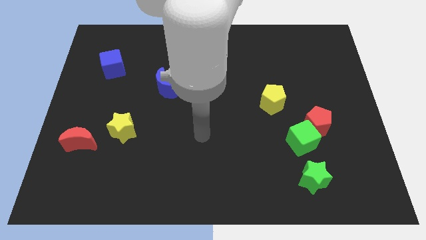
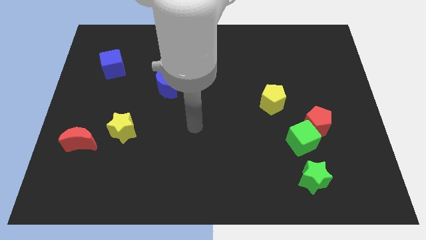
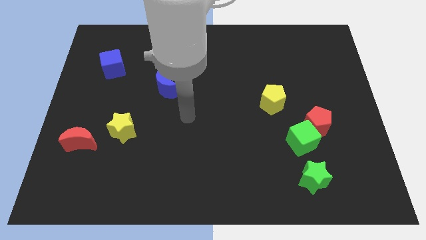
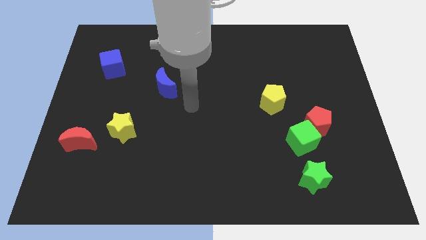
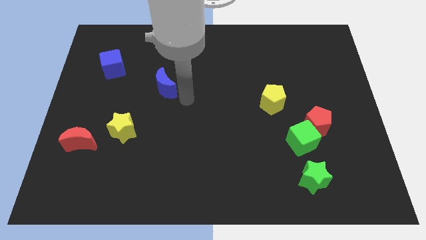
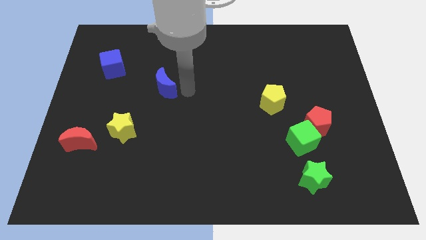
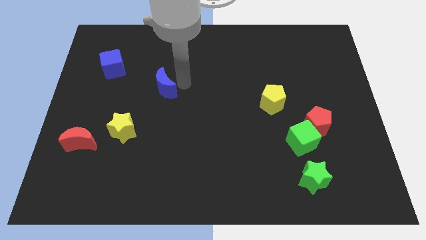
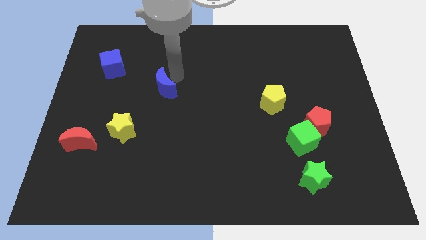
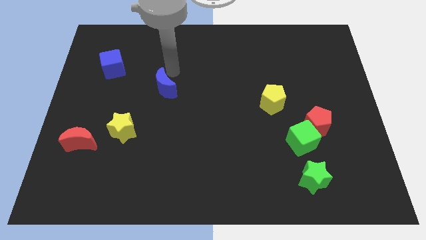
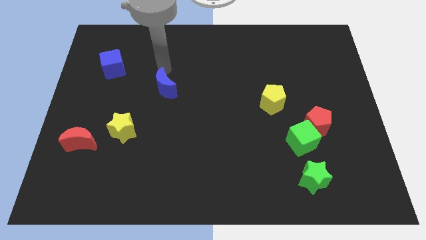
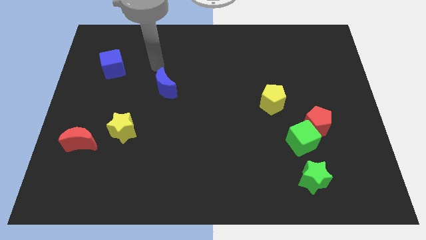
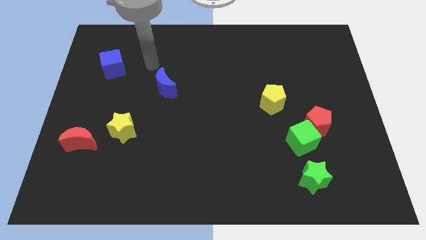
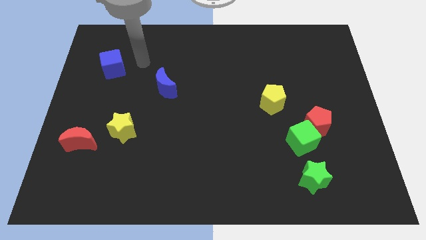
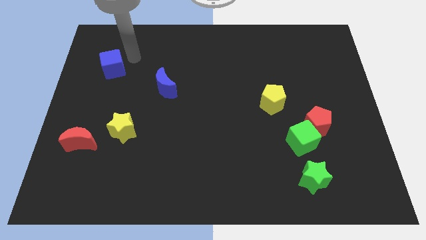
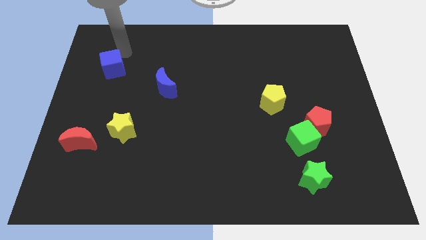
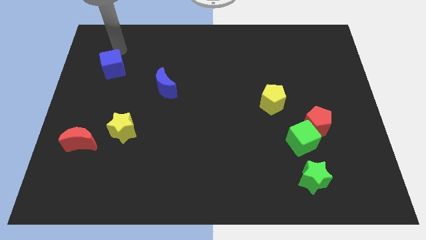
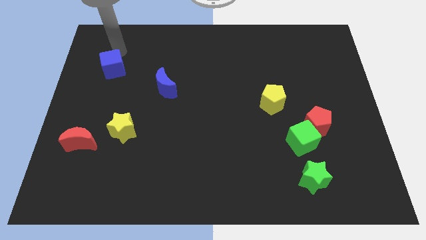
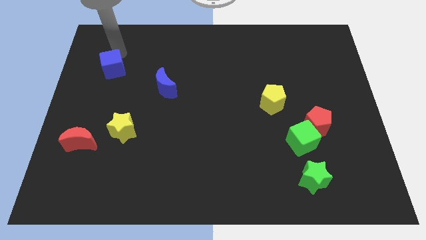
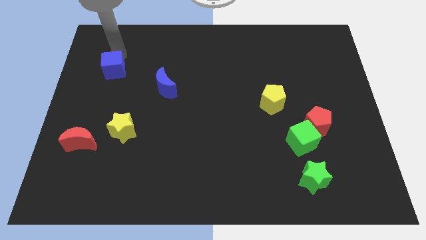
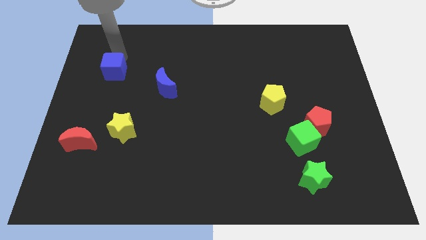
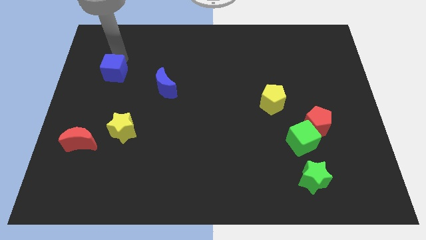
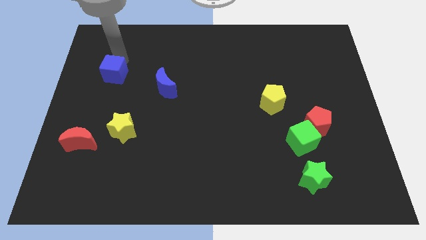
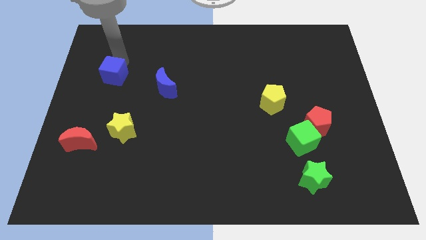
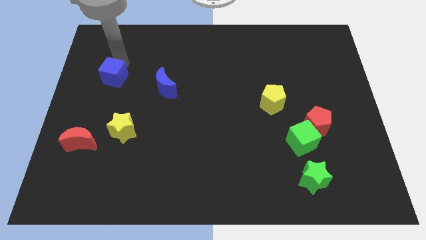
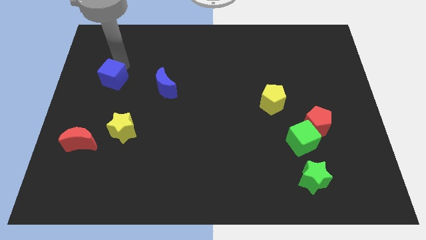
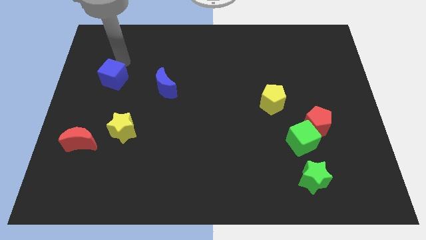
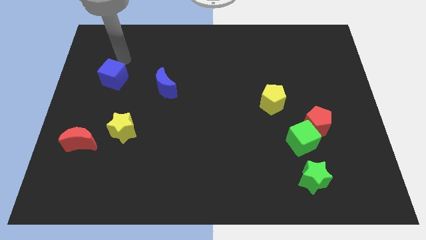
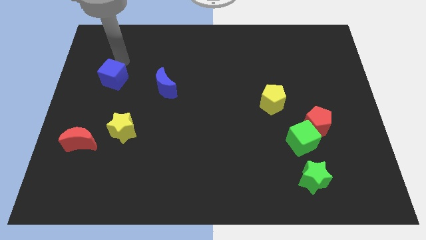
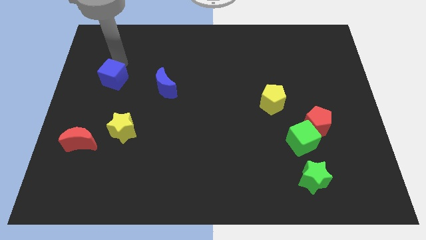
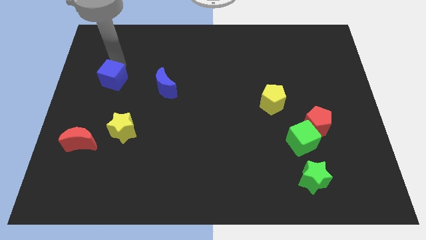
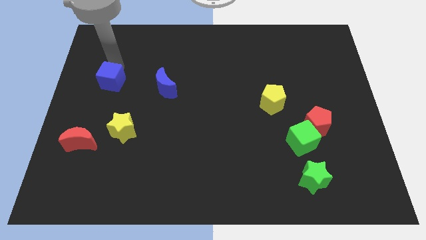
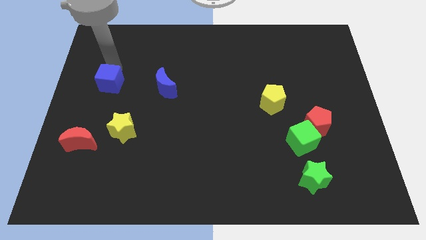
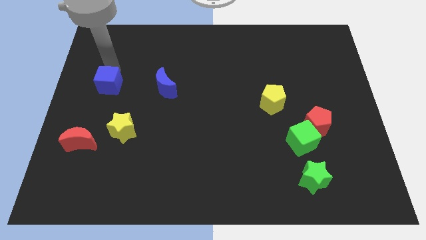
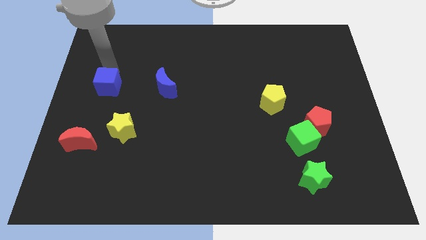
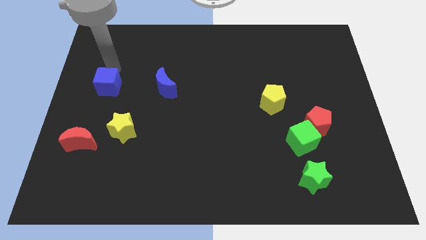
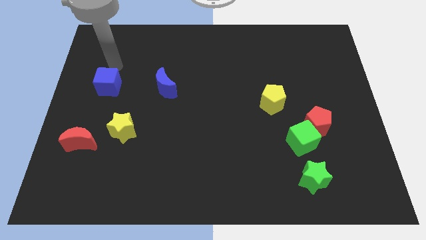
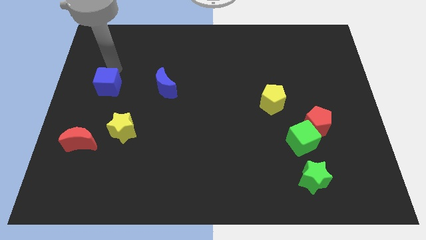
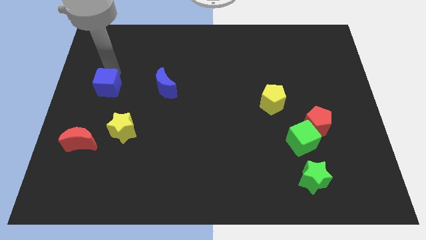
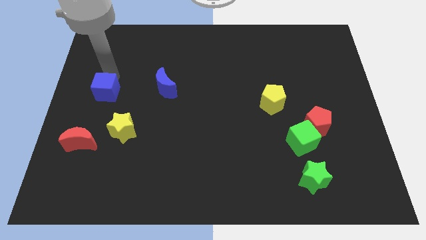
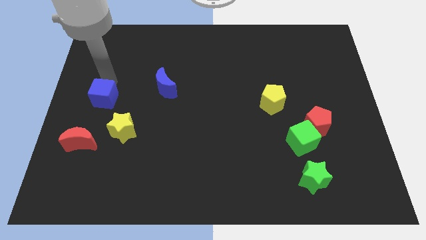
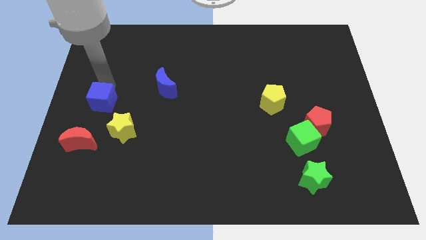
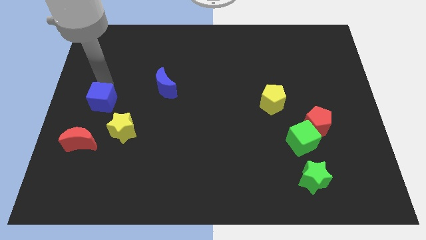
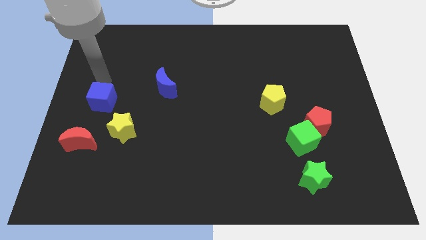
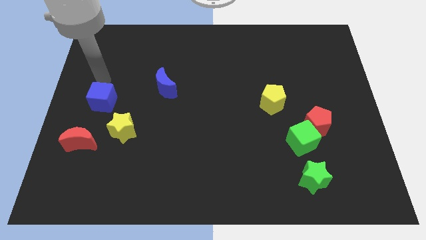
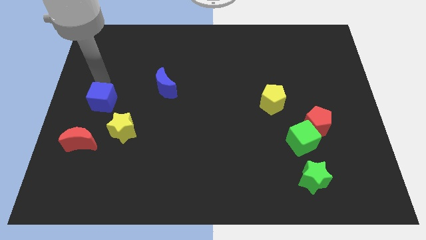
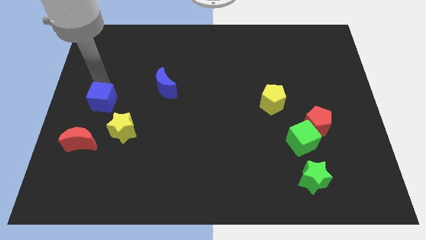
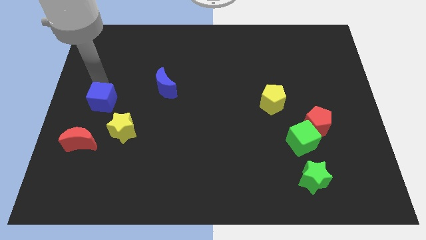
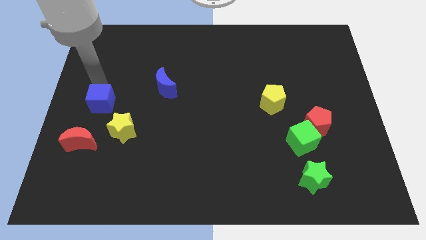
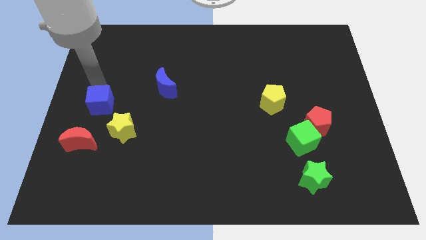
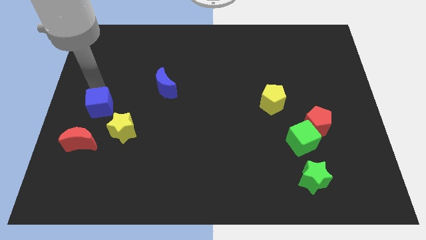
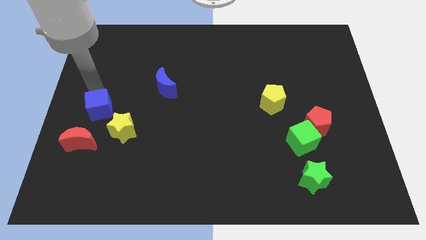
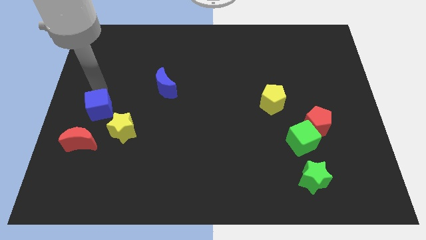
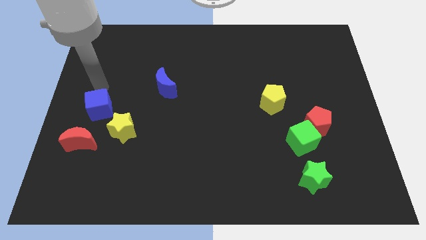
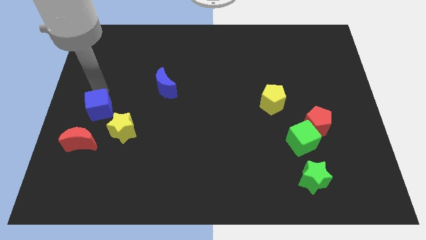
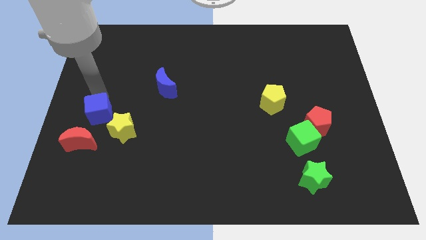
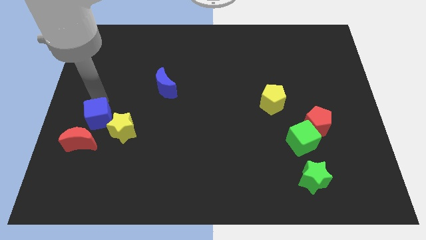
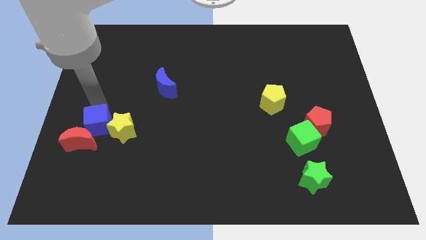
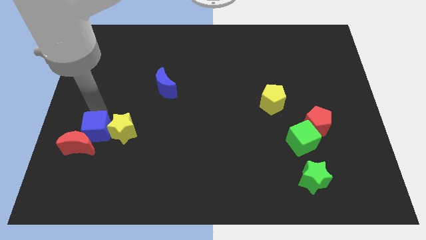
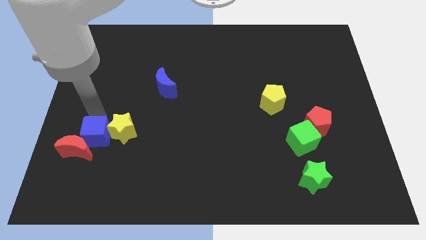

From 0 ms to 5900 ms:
push the blue cube downwards

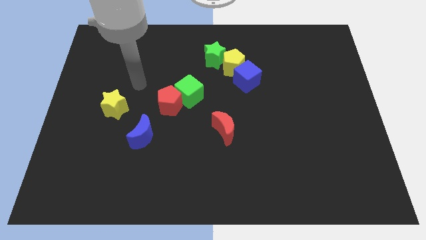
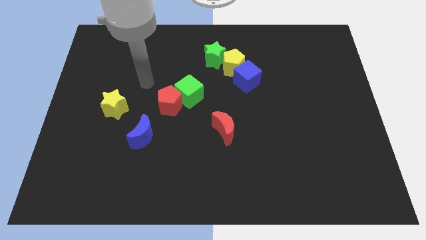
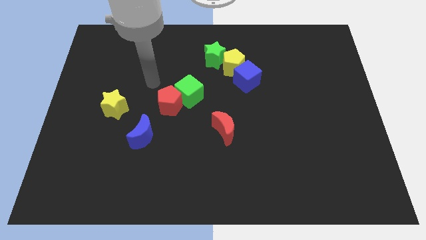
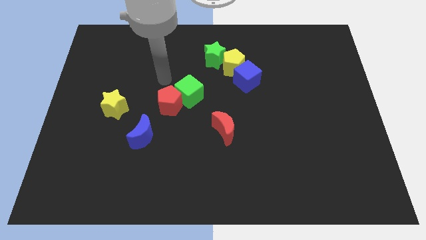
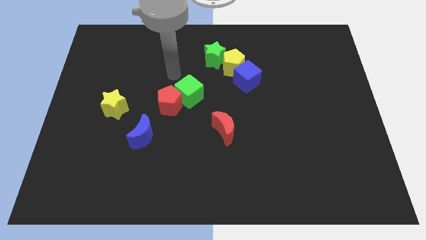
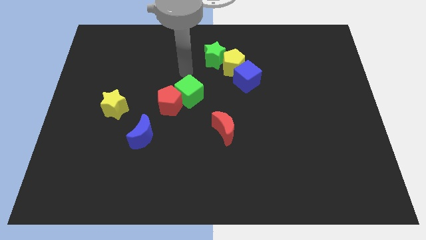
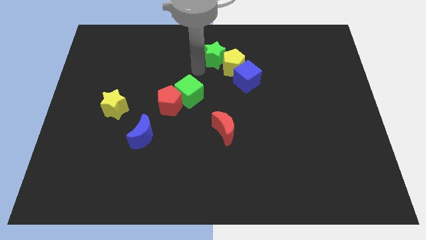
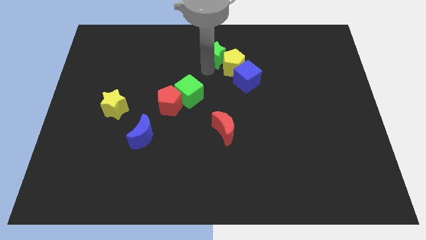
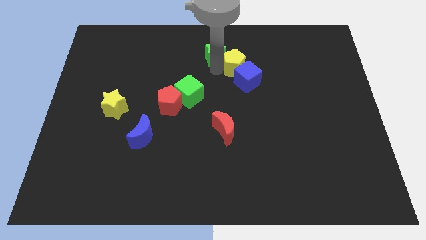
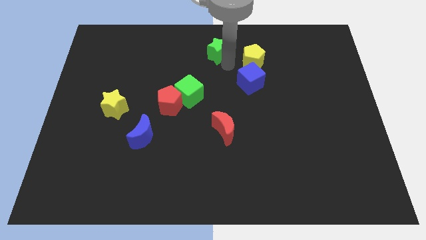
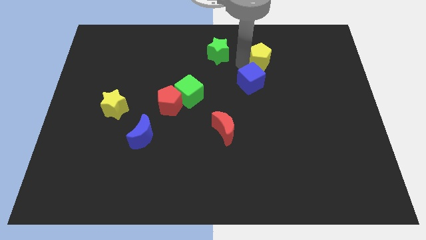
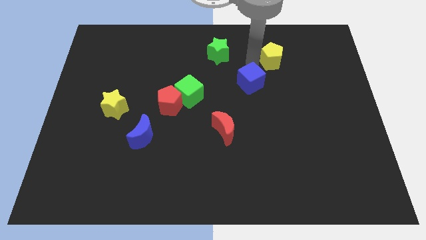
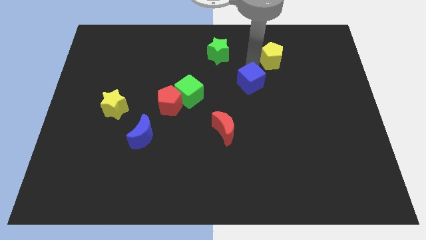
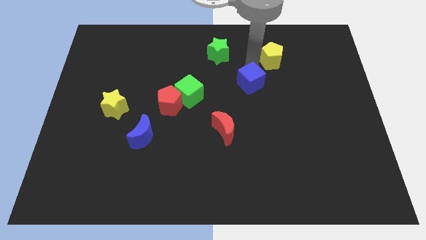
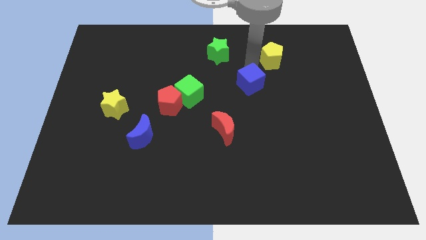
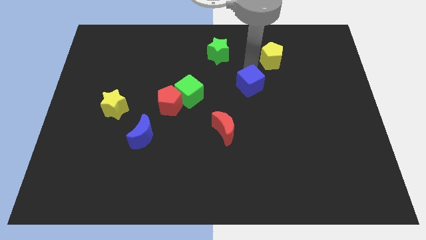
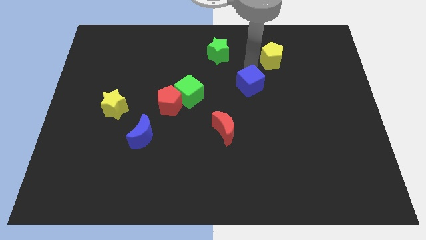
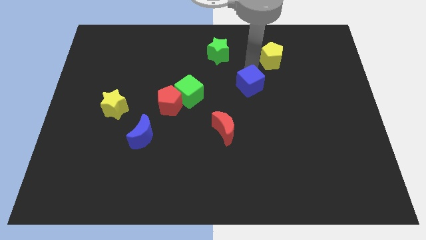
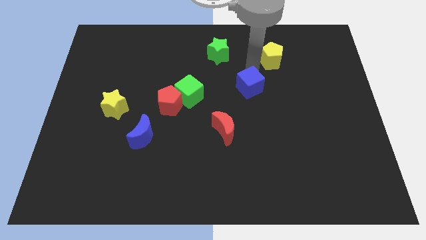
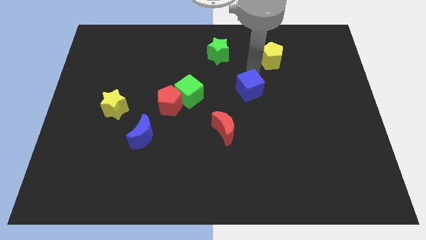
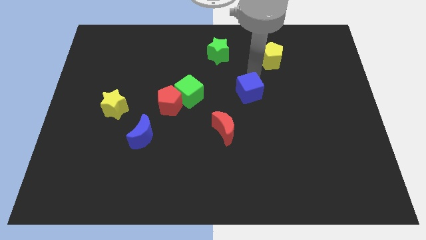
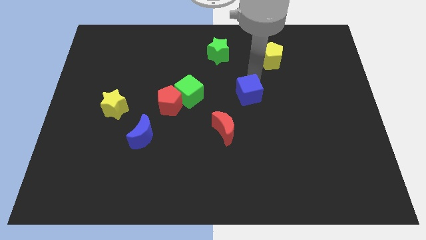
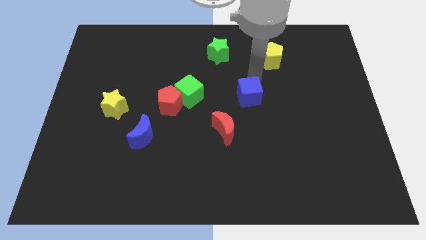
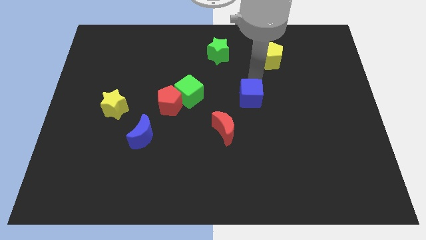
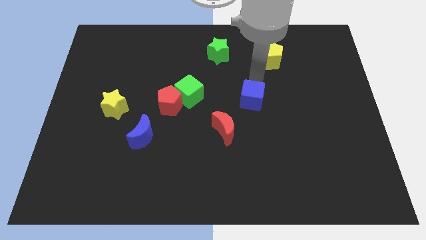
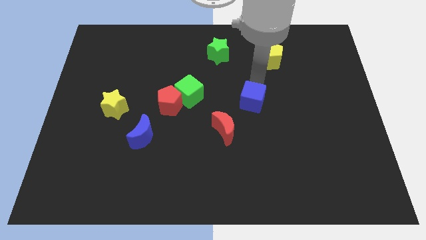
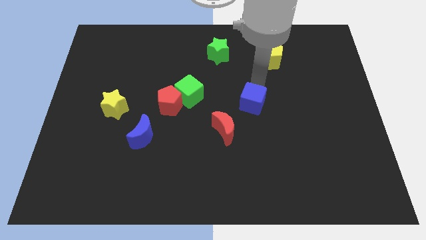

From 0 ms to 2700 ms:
slightly push the blue cube down

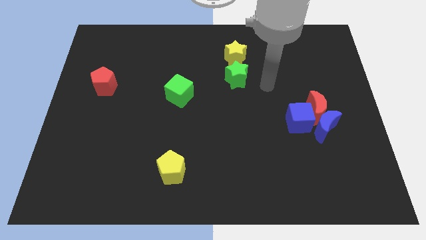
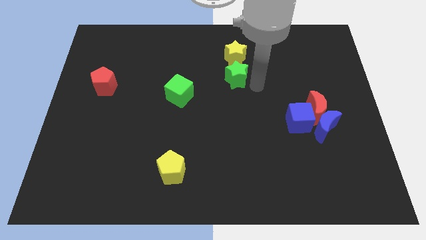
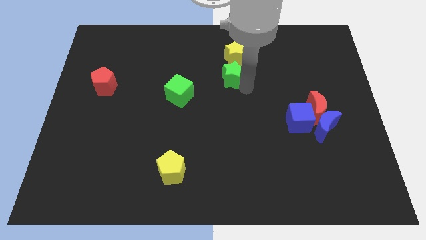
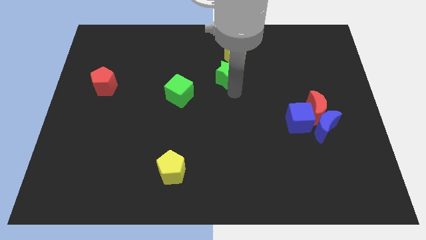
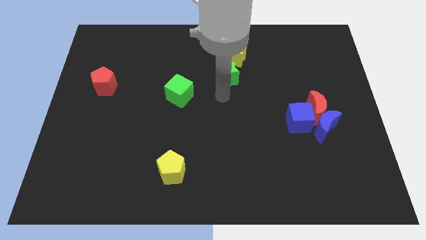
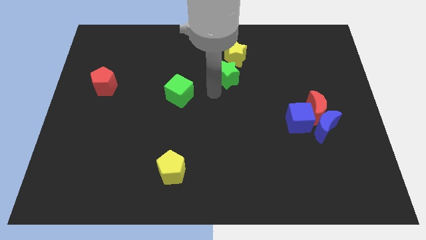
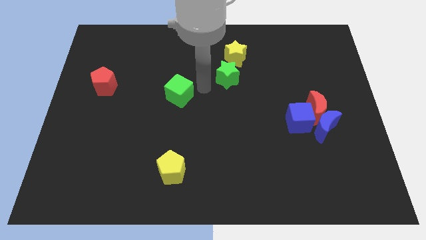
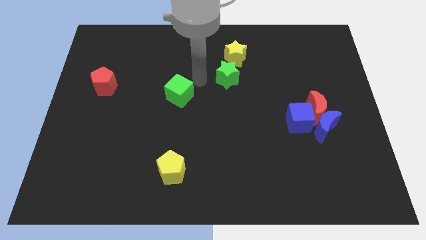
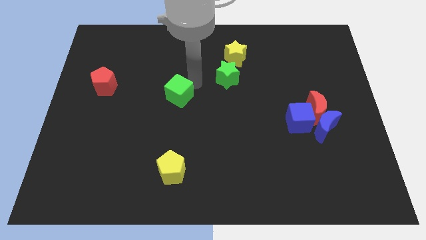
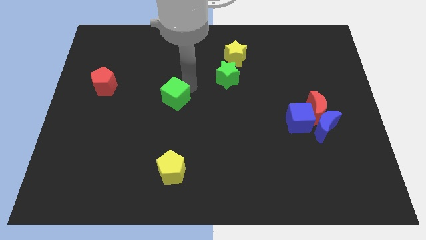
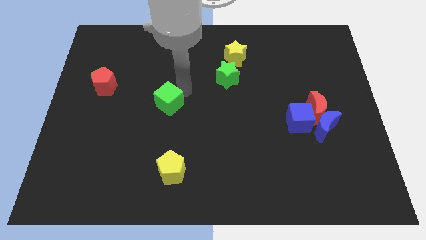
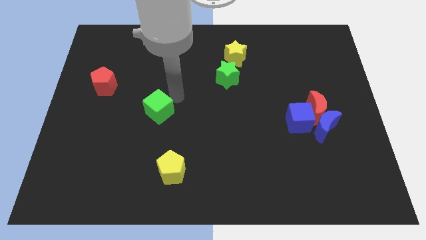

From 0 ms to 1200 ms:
slide the green cube downwards and then left a little
